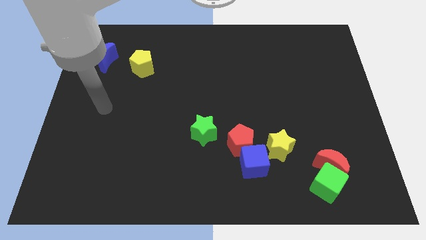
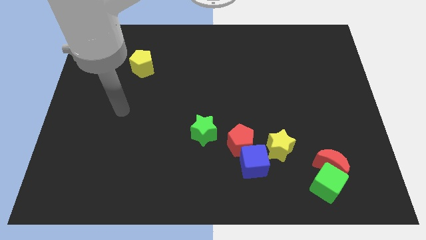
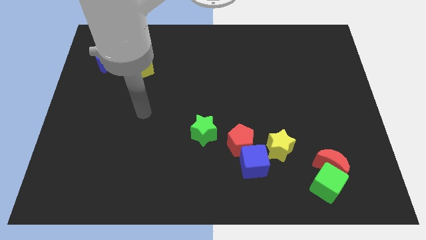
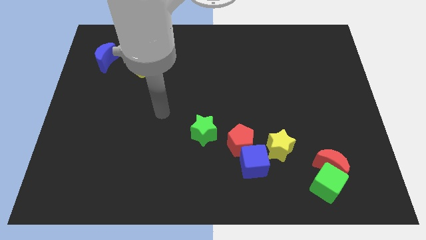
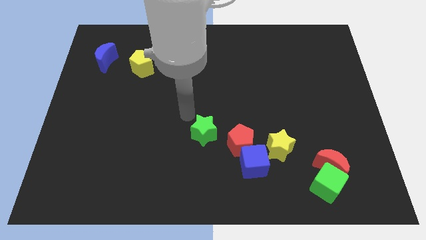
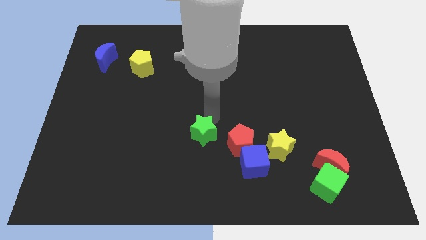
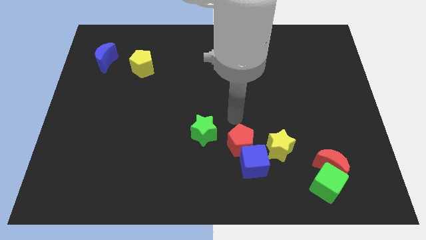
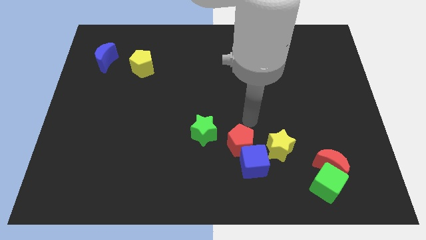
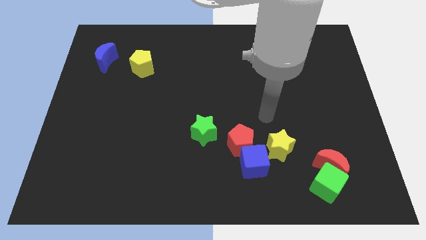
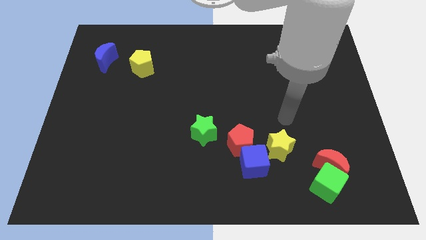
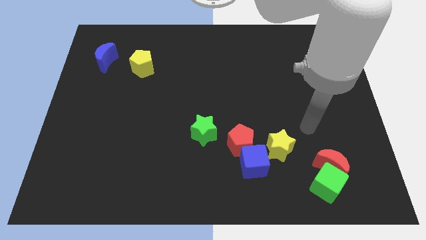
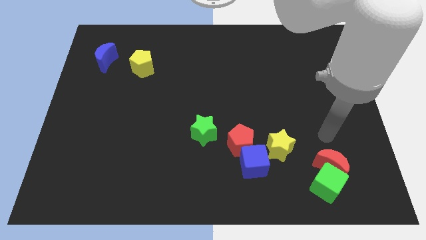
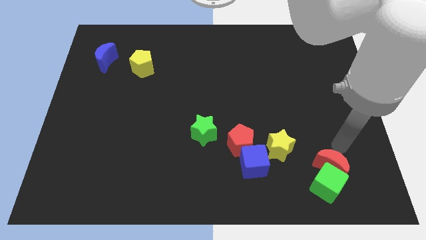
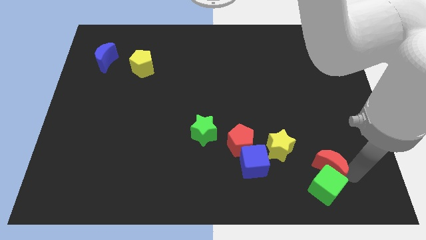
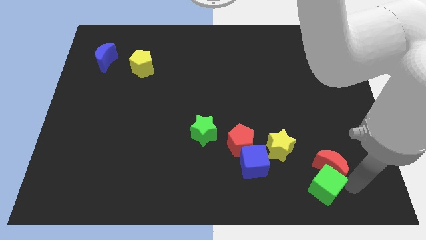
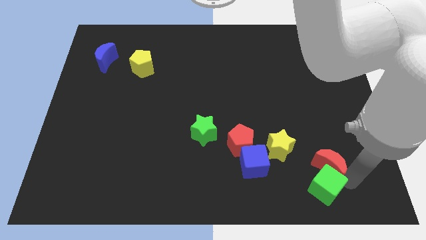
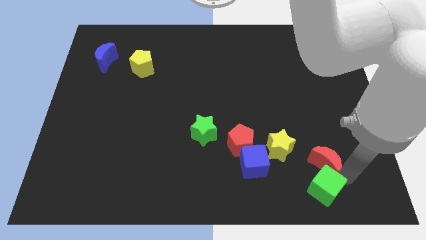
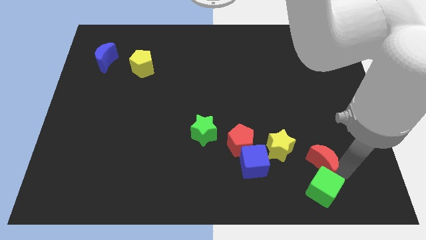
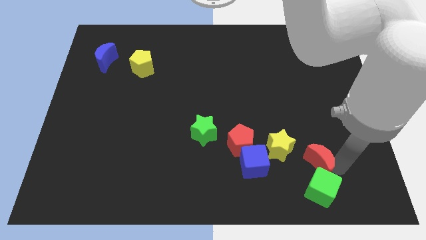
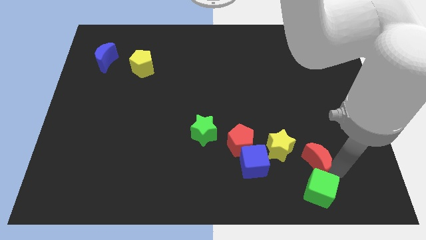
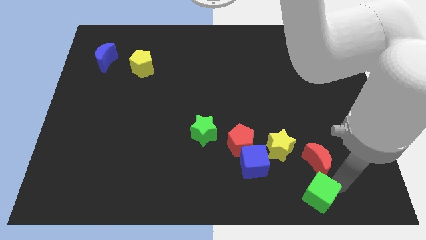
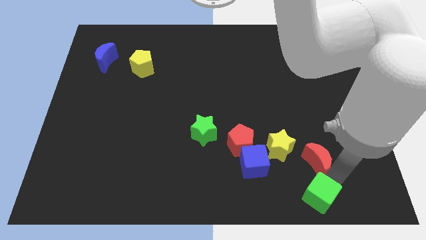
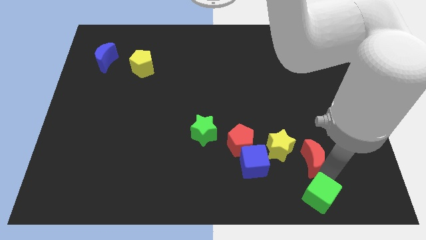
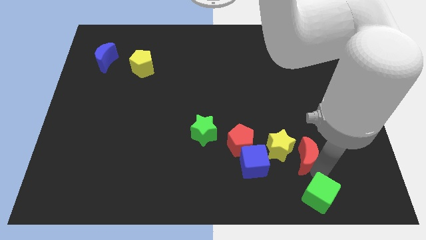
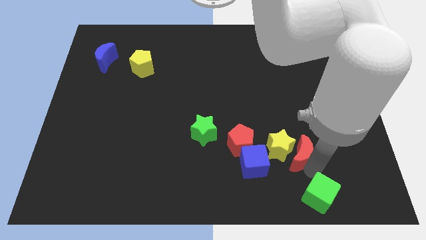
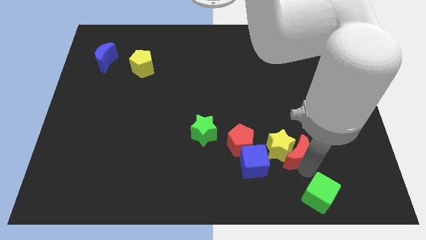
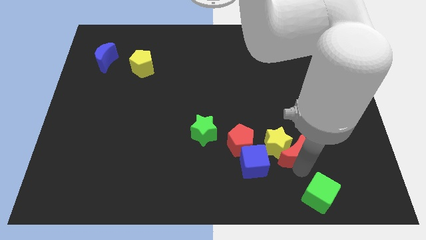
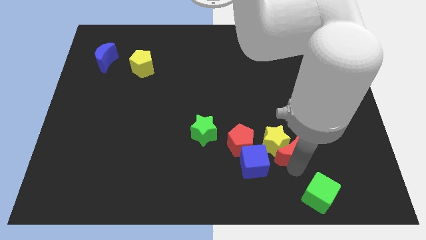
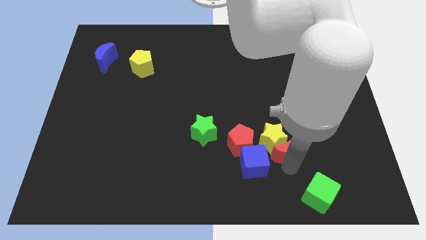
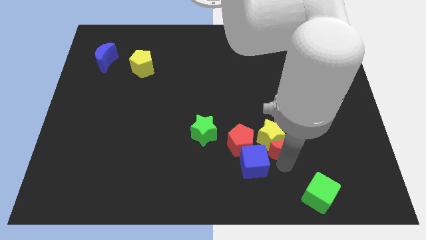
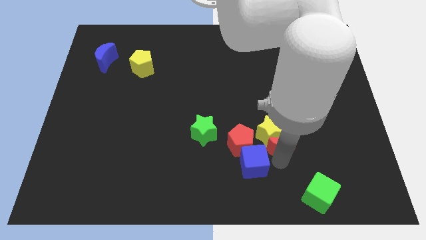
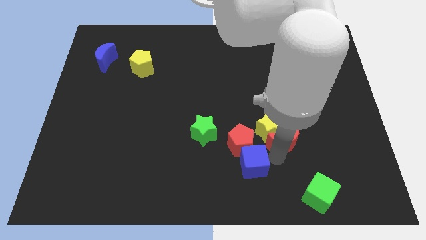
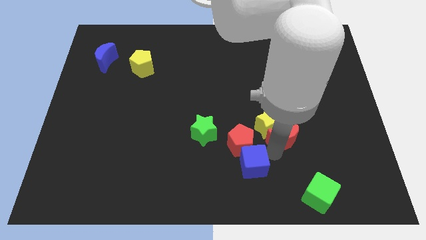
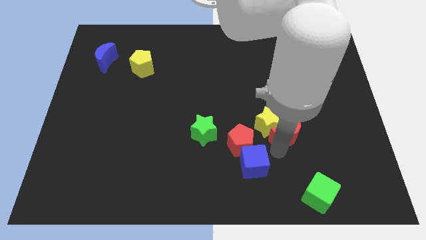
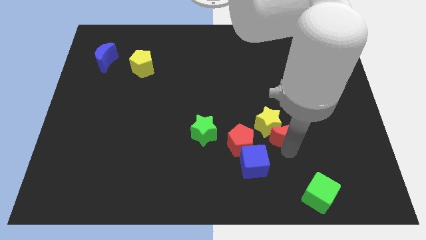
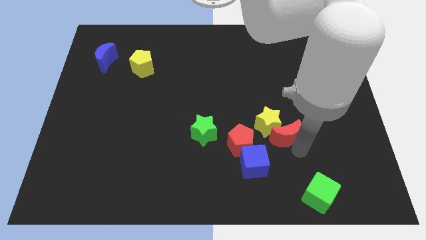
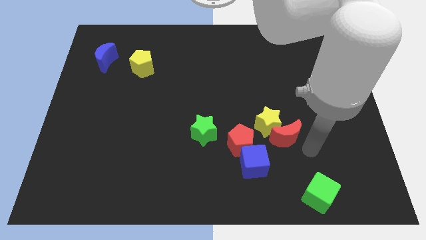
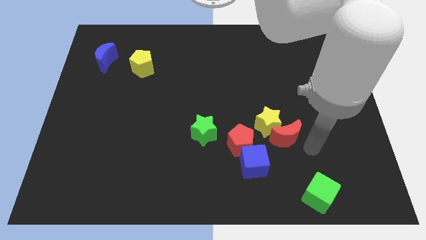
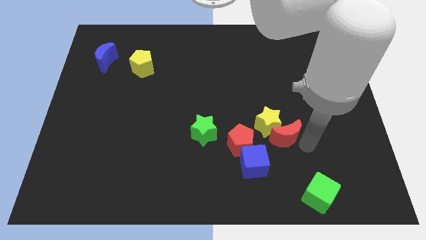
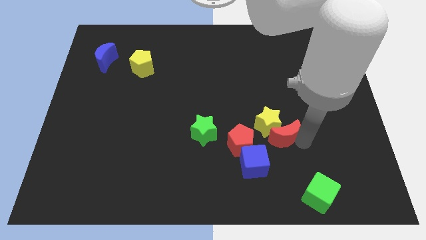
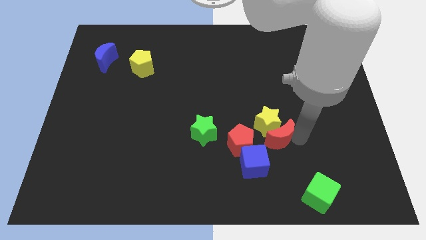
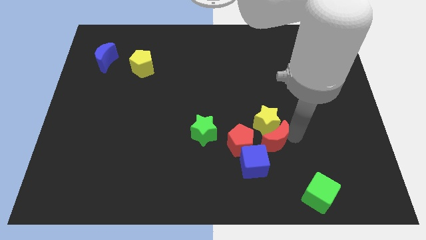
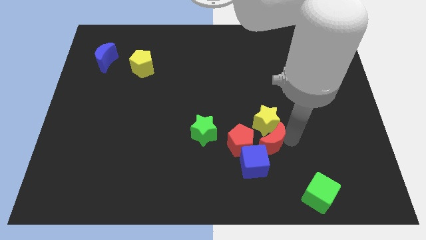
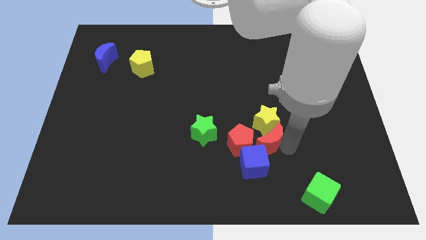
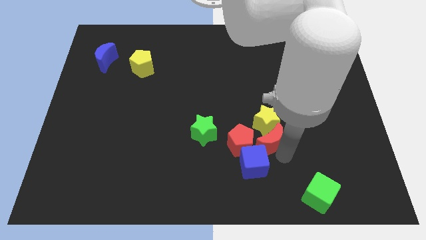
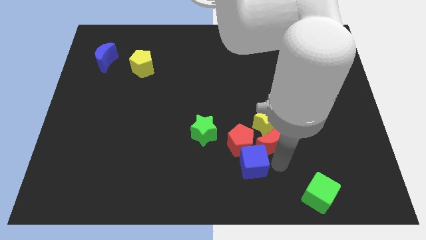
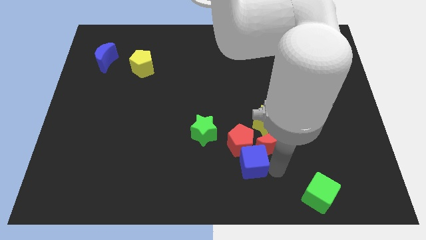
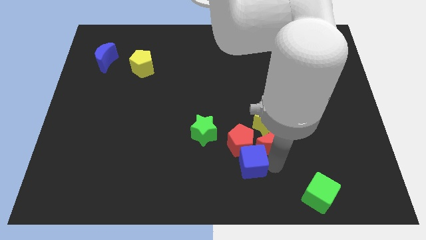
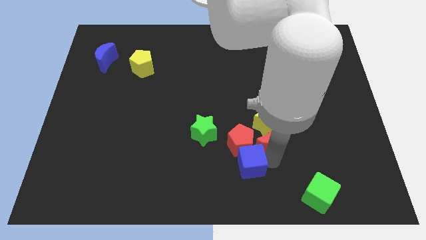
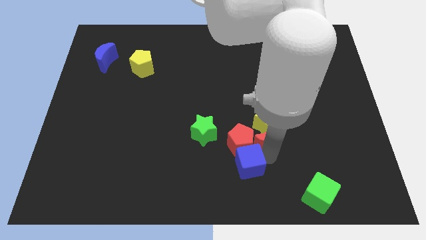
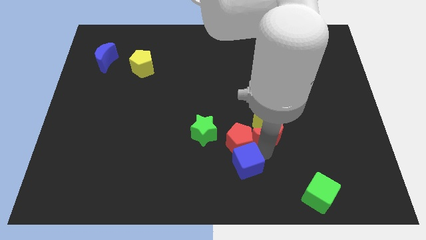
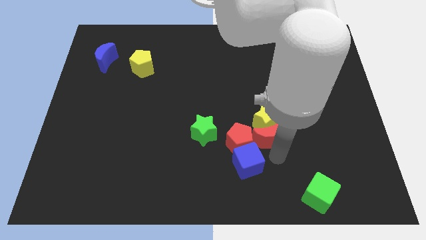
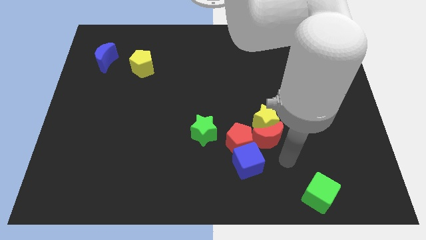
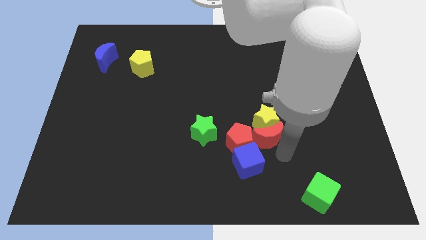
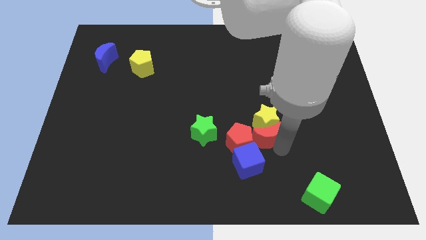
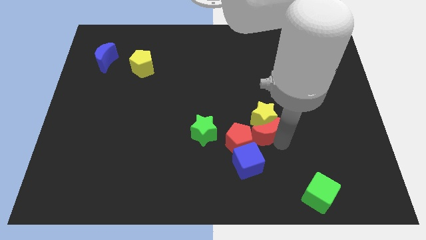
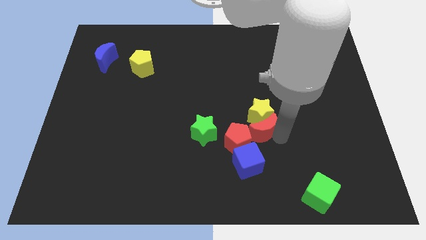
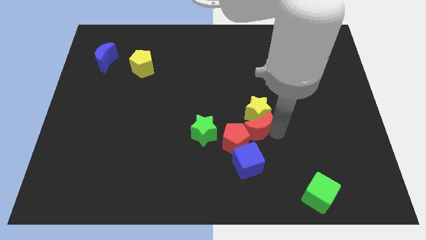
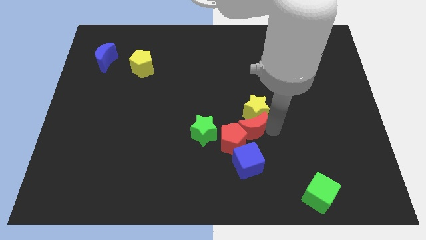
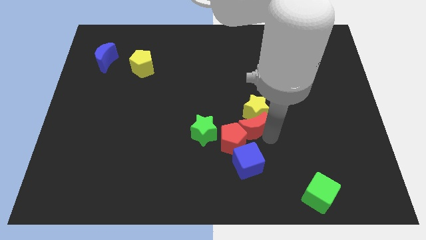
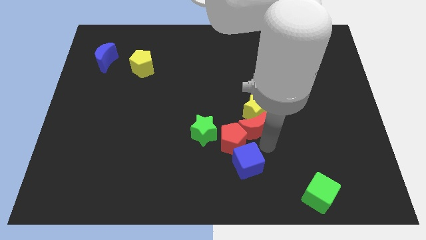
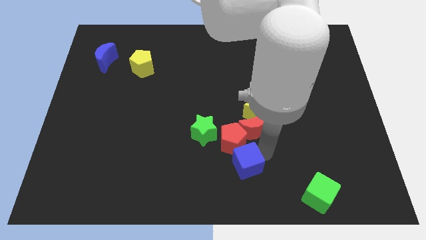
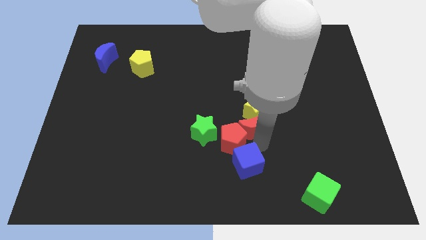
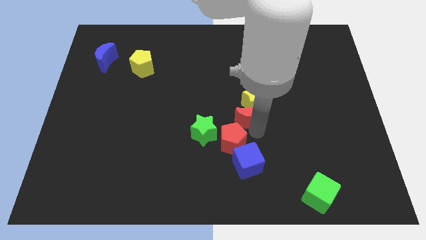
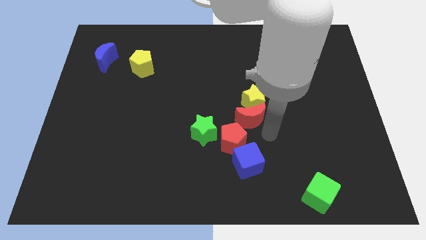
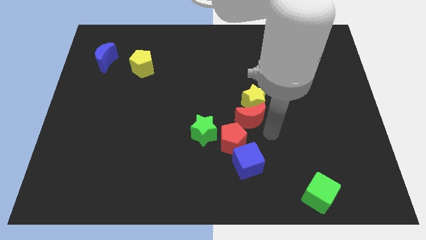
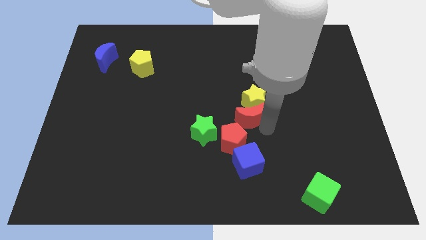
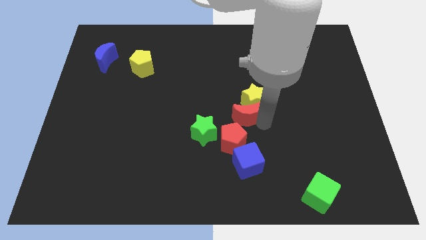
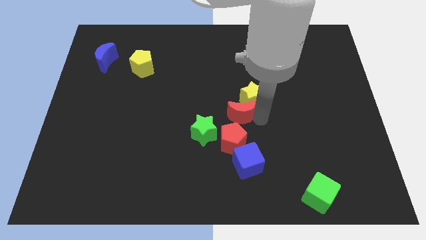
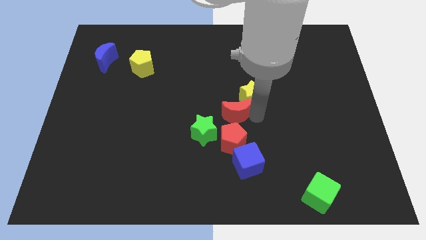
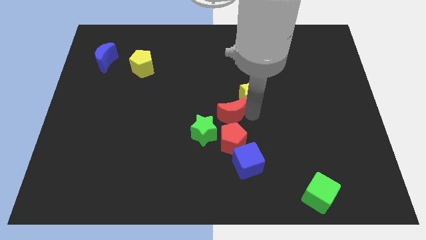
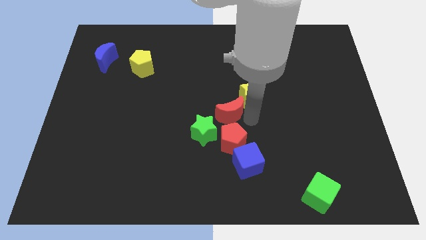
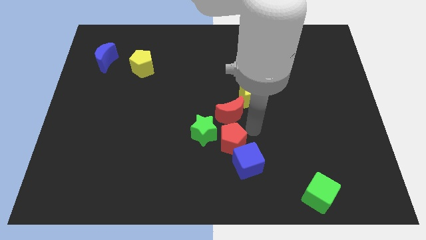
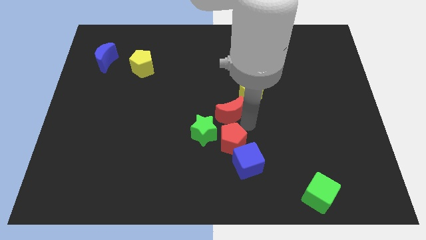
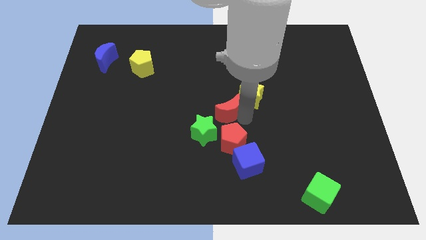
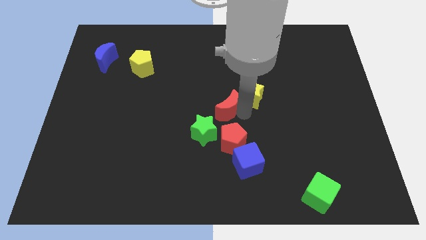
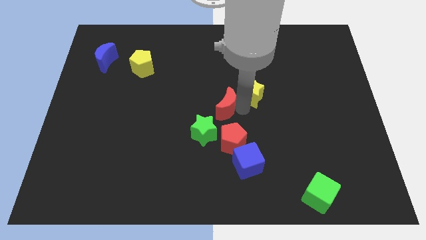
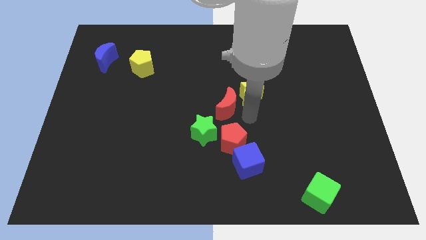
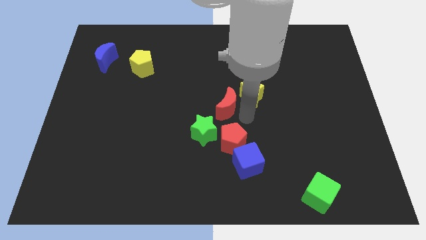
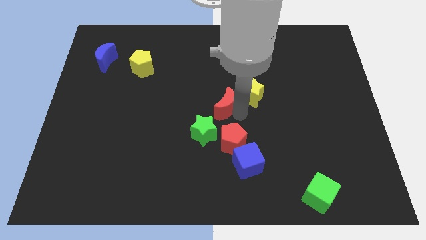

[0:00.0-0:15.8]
push the red moon to the top side of the green star

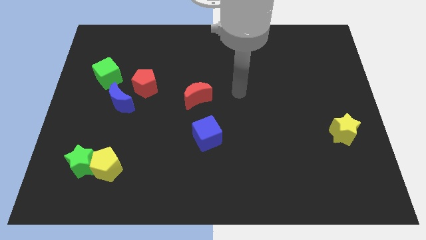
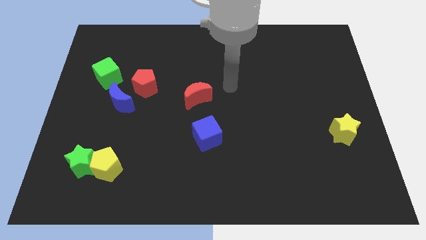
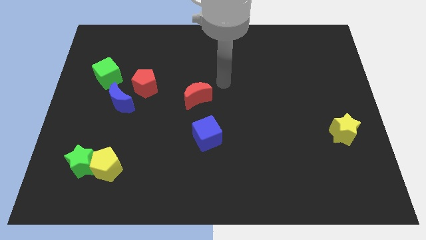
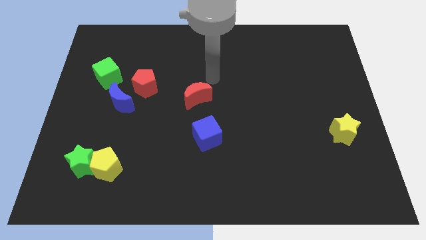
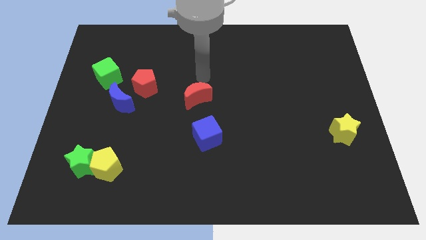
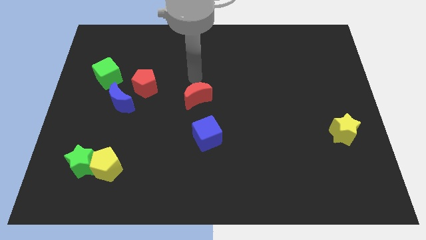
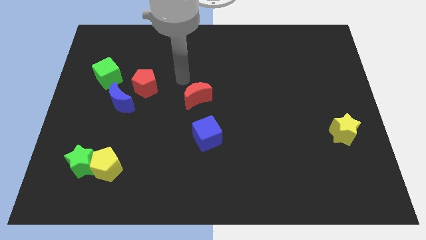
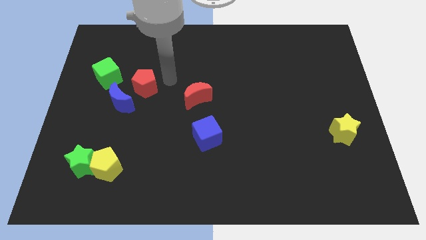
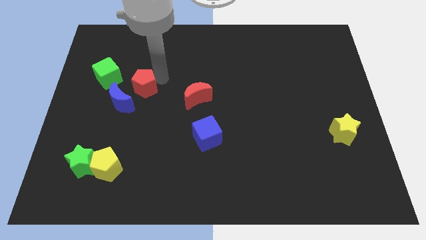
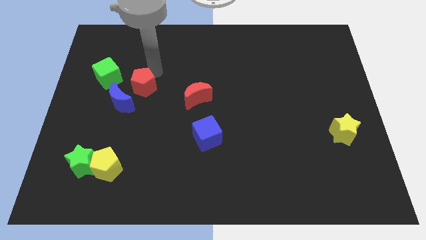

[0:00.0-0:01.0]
slide the blue moon to the bottom of the red pentagon
